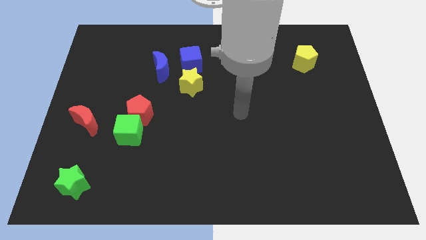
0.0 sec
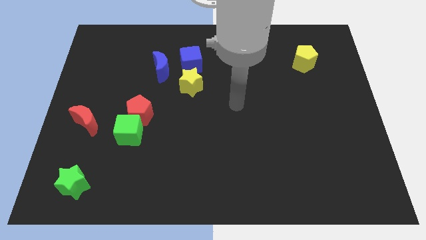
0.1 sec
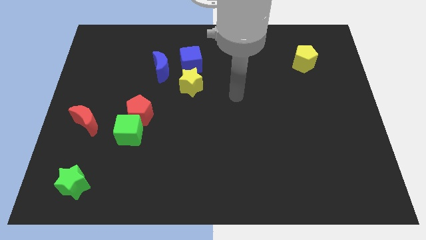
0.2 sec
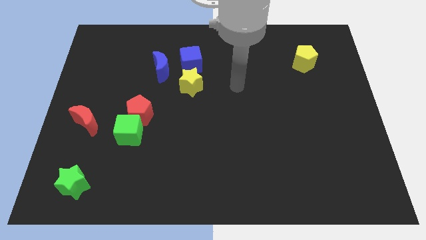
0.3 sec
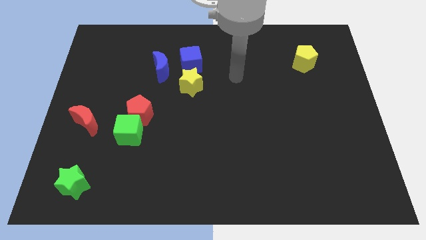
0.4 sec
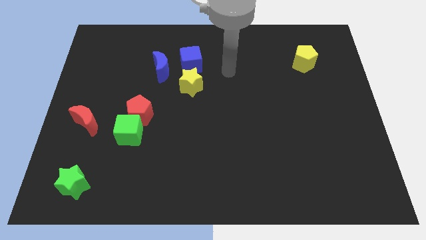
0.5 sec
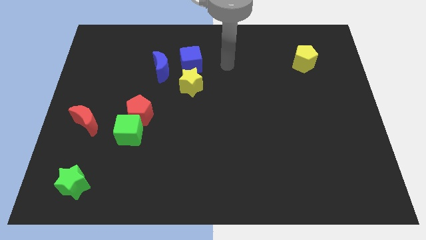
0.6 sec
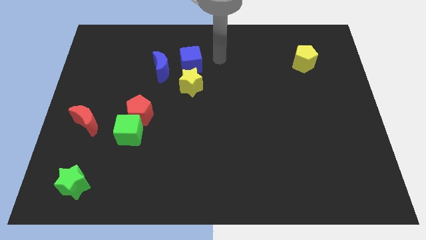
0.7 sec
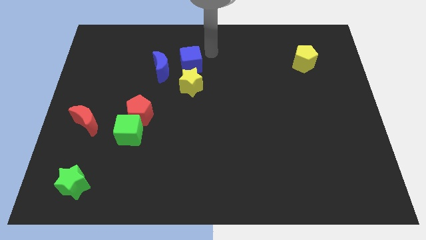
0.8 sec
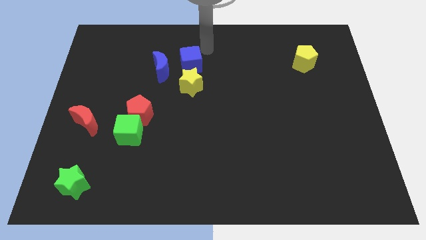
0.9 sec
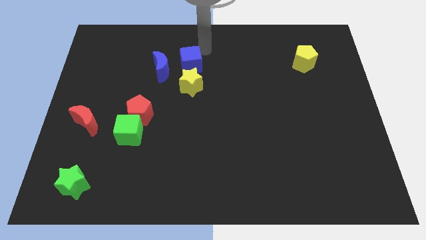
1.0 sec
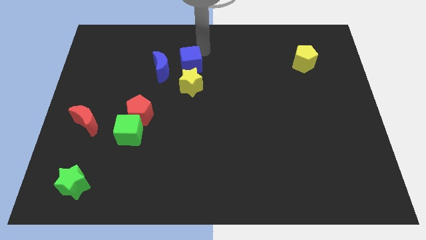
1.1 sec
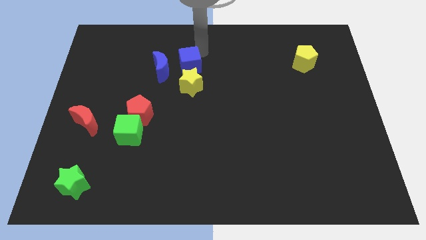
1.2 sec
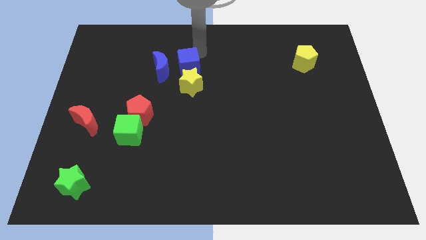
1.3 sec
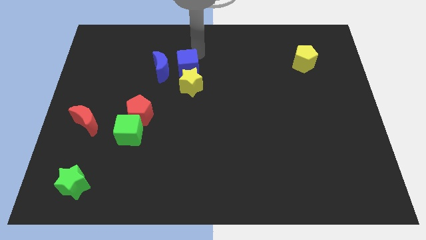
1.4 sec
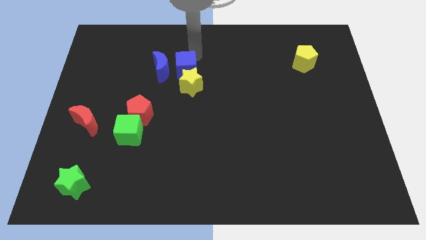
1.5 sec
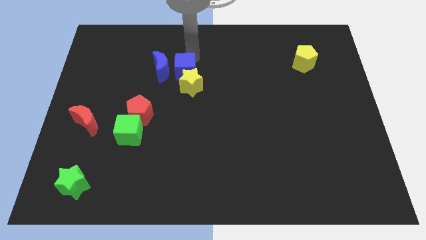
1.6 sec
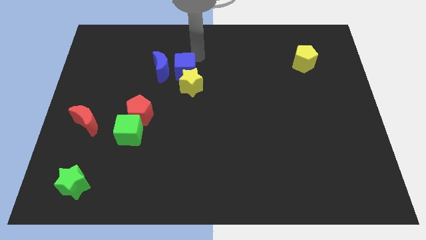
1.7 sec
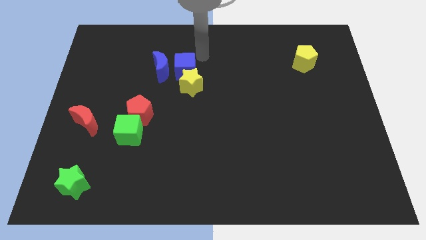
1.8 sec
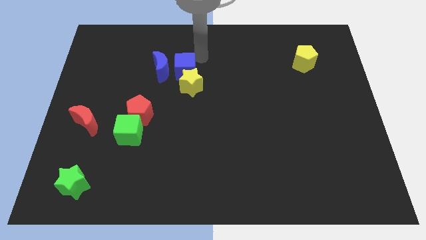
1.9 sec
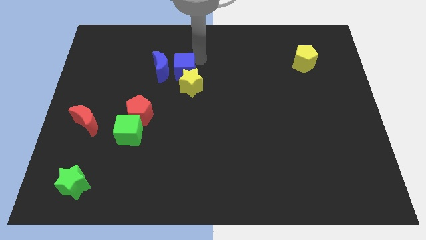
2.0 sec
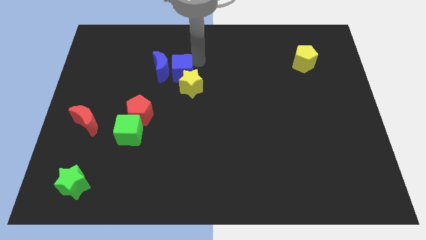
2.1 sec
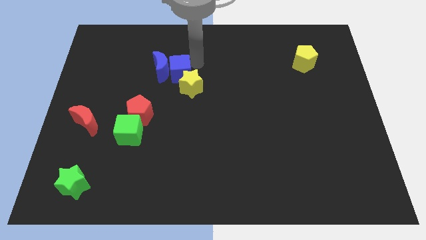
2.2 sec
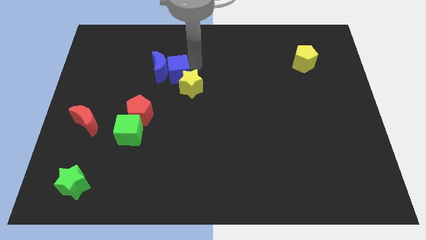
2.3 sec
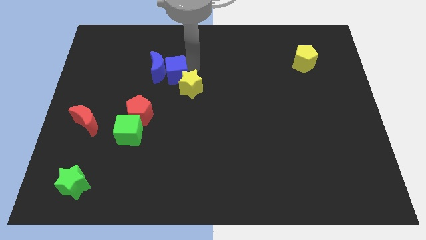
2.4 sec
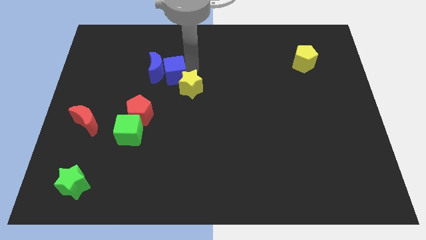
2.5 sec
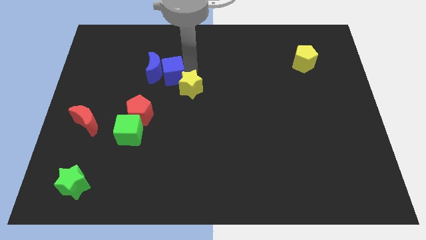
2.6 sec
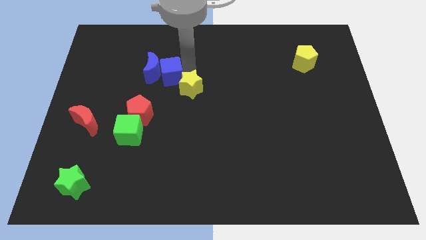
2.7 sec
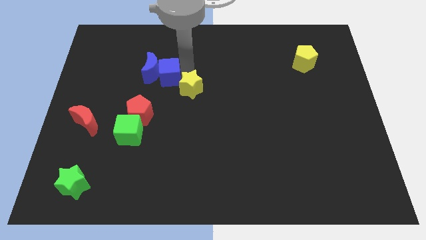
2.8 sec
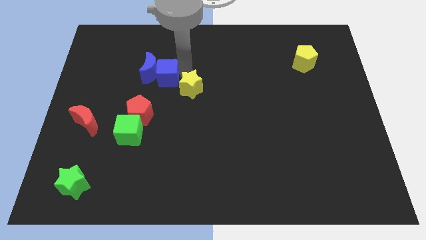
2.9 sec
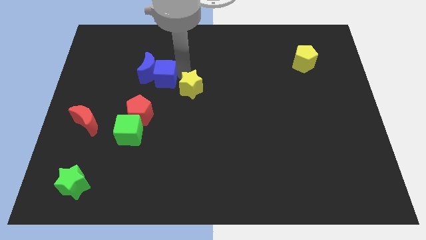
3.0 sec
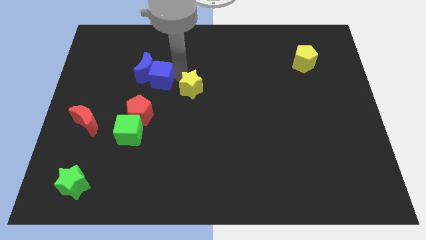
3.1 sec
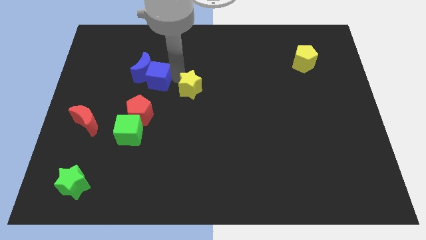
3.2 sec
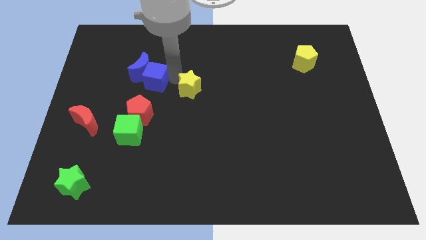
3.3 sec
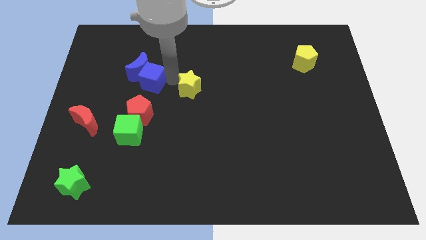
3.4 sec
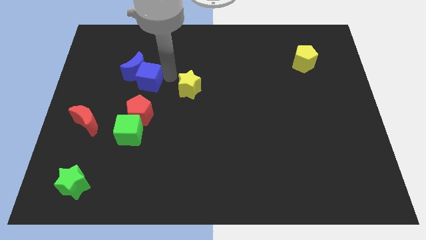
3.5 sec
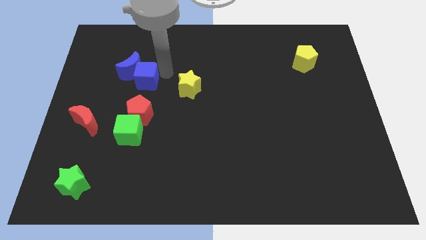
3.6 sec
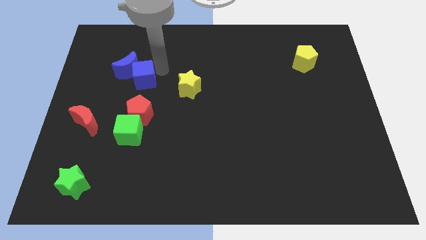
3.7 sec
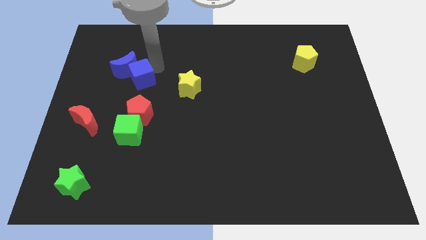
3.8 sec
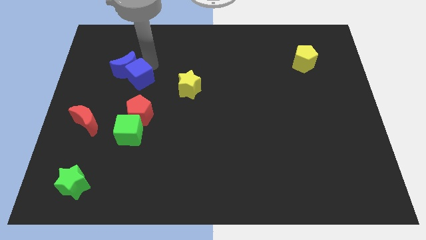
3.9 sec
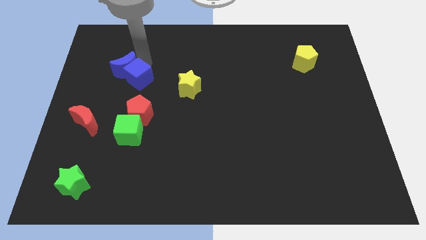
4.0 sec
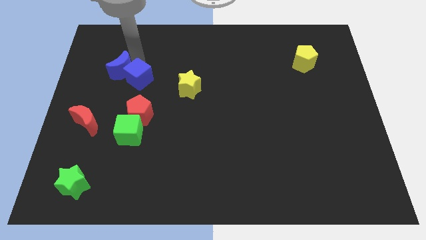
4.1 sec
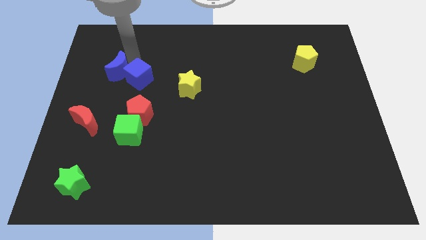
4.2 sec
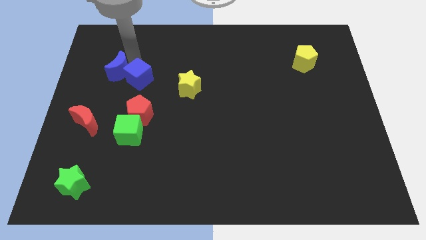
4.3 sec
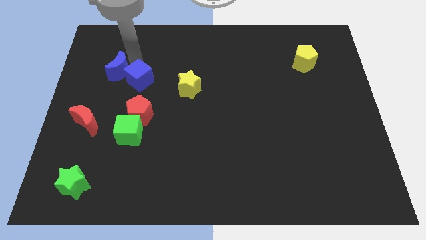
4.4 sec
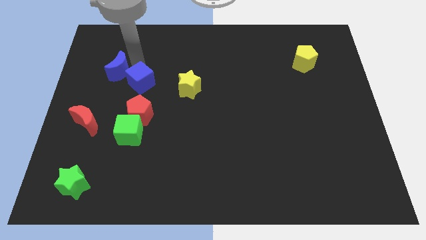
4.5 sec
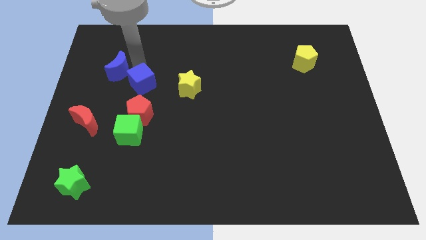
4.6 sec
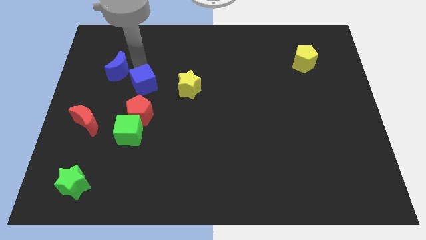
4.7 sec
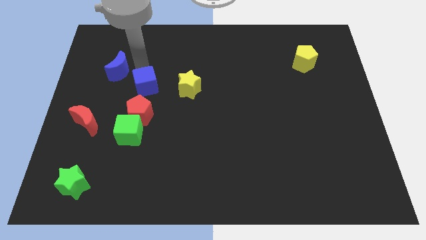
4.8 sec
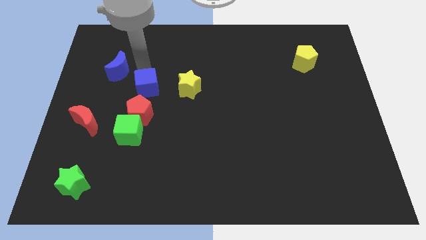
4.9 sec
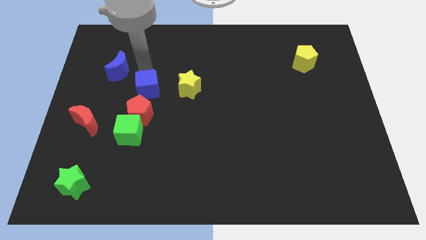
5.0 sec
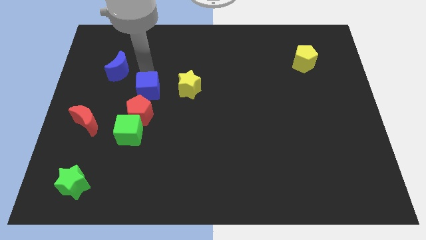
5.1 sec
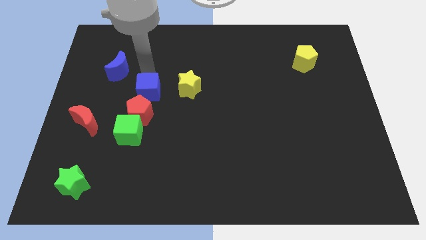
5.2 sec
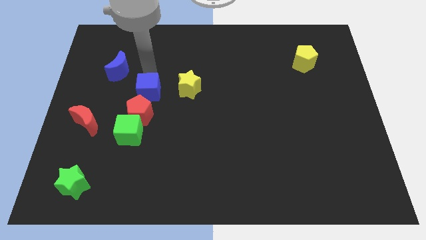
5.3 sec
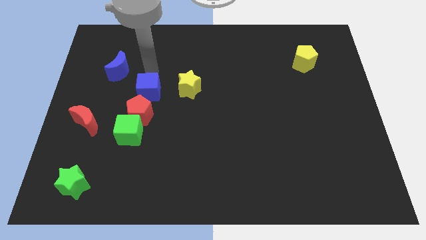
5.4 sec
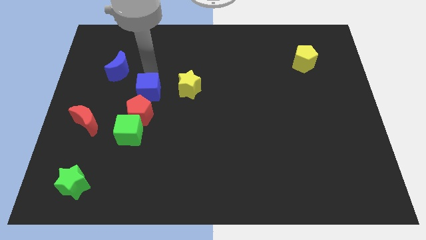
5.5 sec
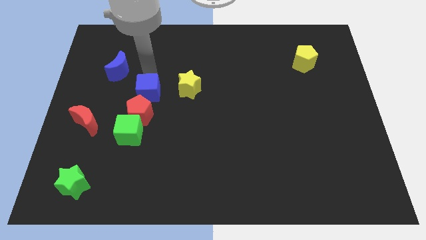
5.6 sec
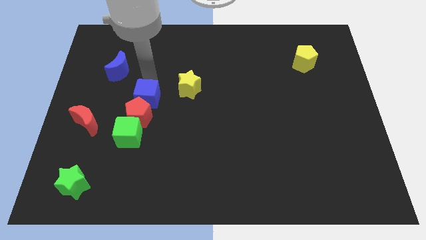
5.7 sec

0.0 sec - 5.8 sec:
slide the blue cube close to the red pentagon

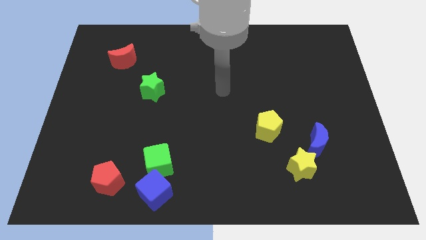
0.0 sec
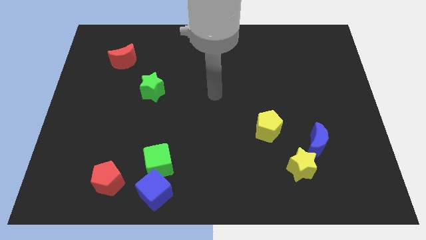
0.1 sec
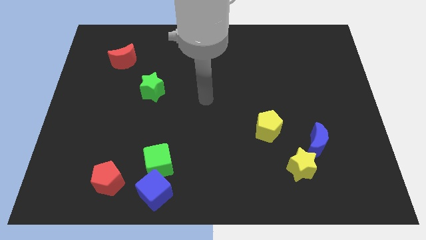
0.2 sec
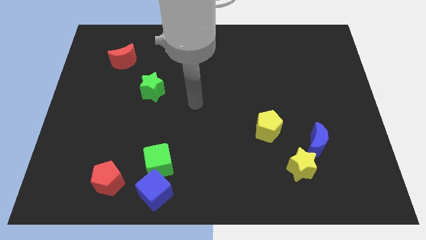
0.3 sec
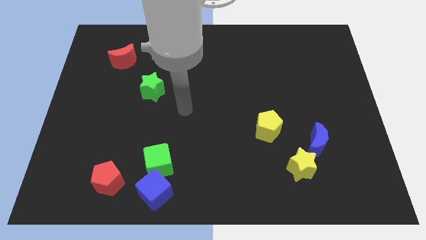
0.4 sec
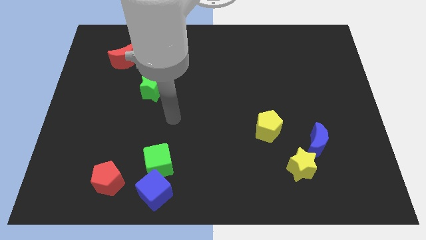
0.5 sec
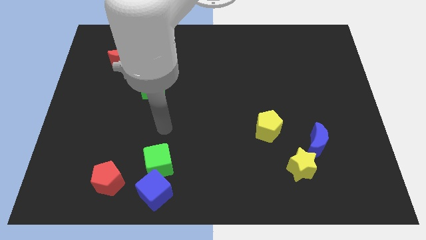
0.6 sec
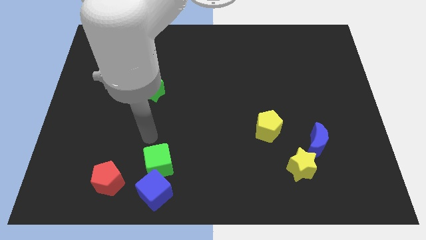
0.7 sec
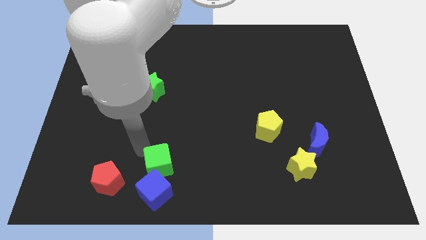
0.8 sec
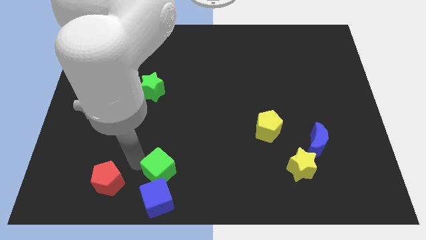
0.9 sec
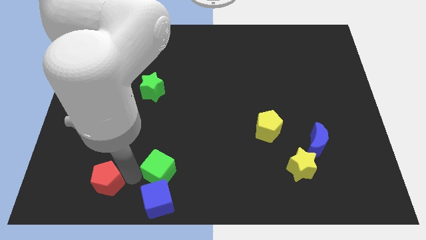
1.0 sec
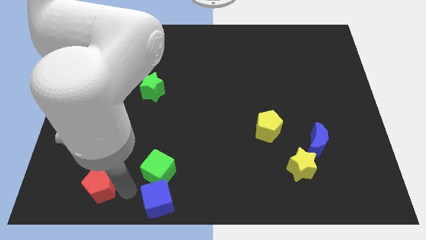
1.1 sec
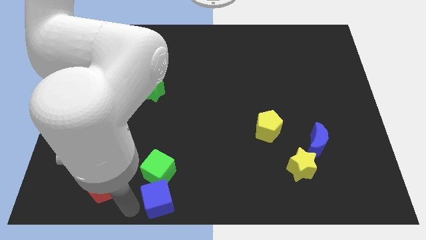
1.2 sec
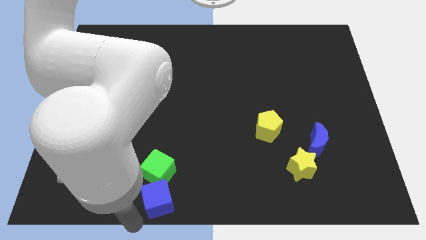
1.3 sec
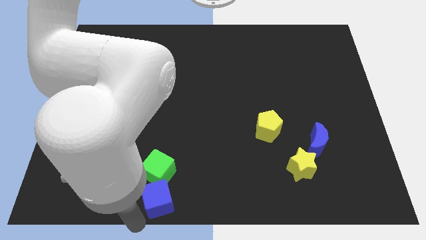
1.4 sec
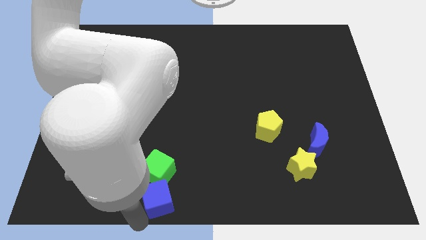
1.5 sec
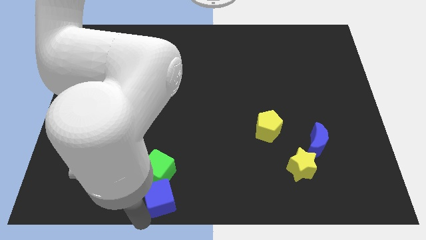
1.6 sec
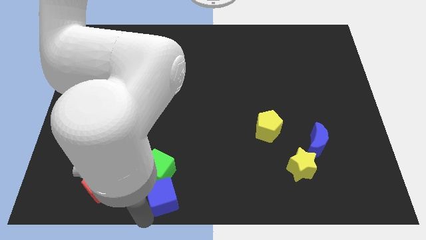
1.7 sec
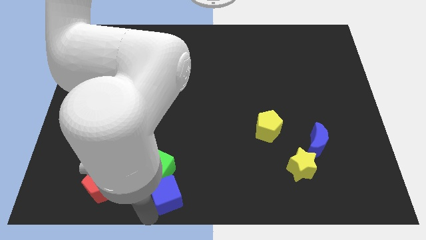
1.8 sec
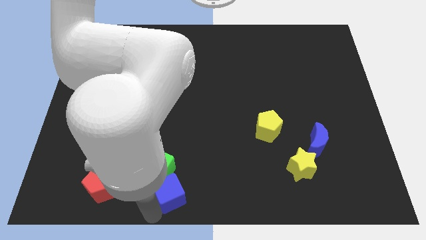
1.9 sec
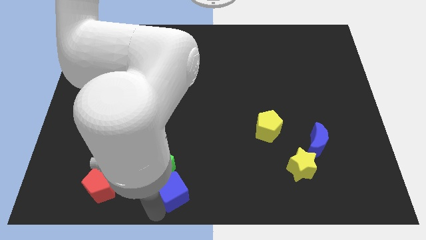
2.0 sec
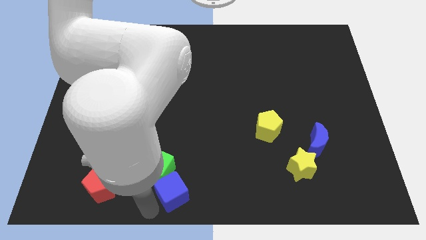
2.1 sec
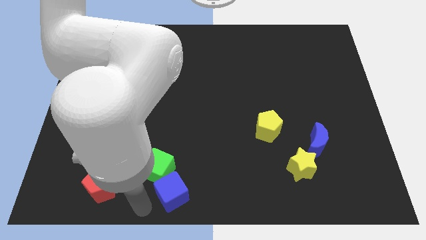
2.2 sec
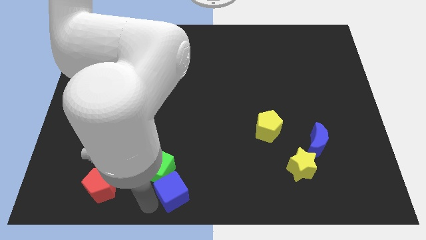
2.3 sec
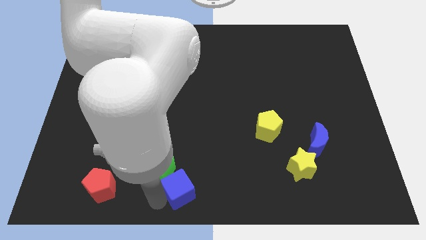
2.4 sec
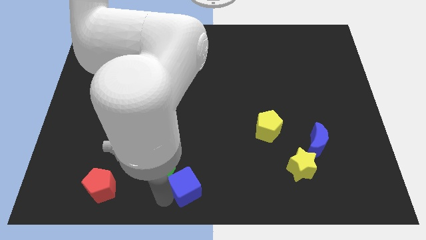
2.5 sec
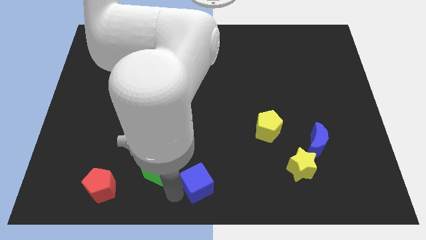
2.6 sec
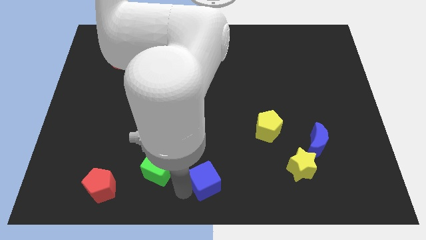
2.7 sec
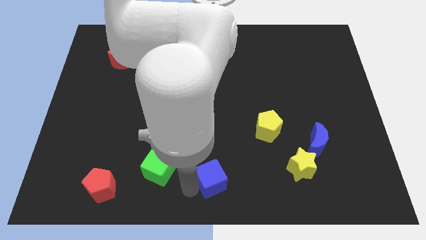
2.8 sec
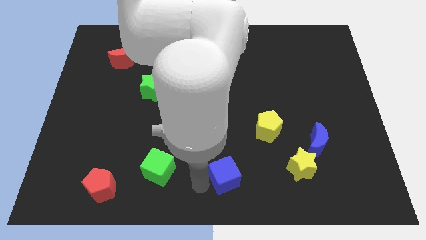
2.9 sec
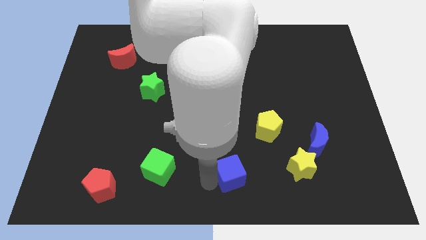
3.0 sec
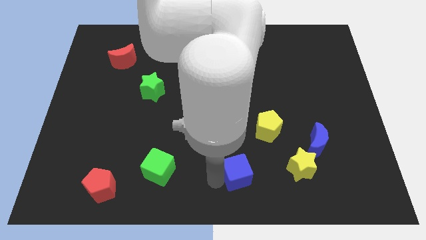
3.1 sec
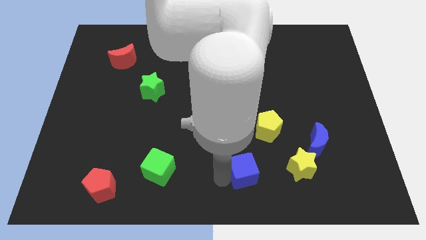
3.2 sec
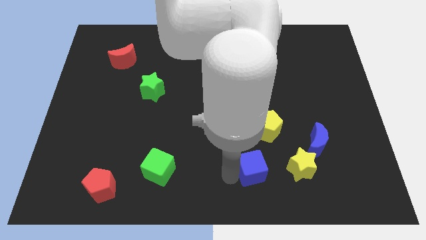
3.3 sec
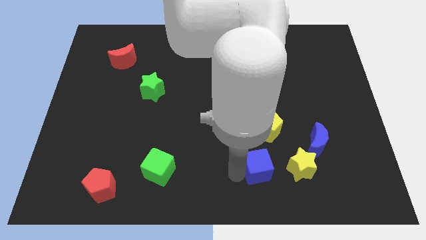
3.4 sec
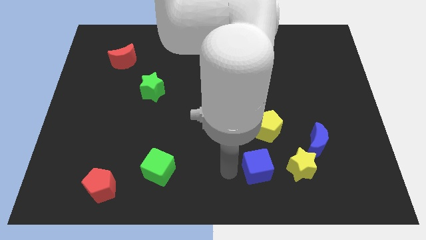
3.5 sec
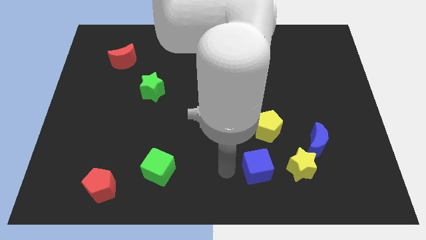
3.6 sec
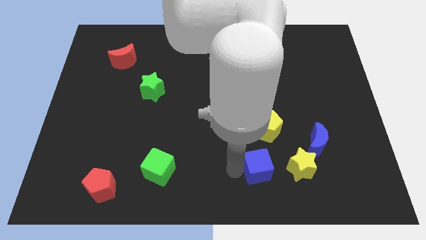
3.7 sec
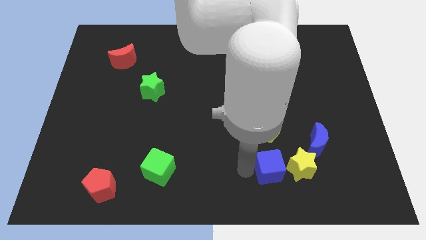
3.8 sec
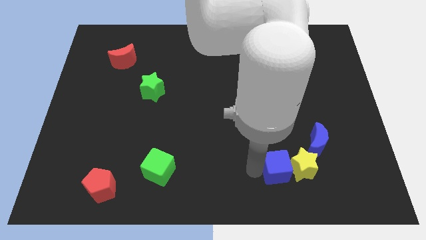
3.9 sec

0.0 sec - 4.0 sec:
put the blue cube close to the yellow star
